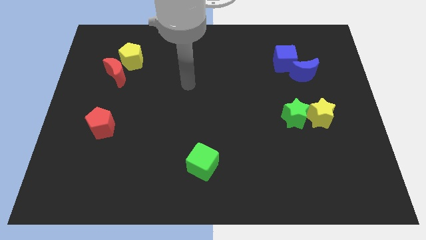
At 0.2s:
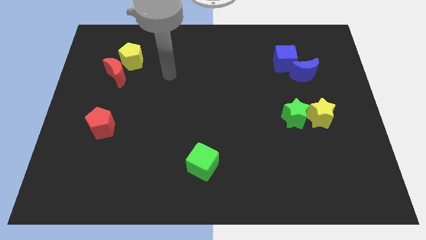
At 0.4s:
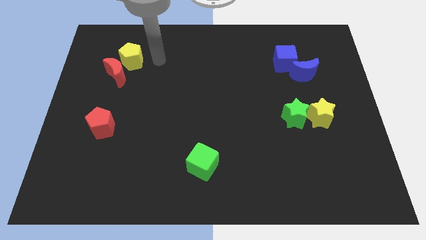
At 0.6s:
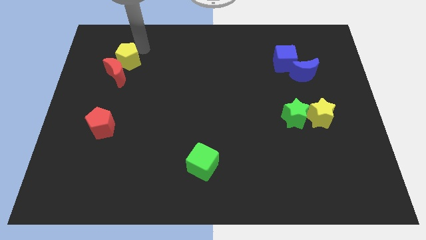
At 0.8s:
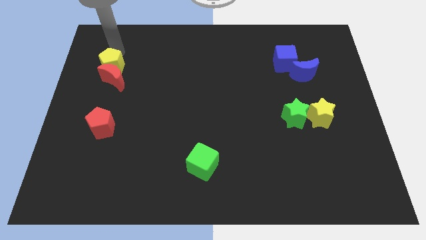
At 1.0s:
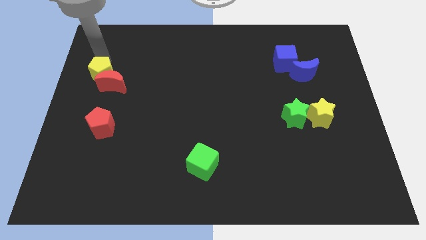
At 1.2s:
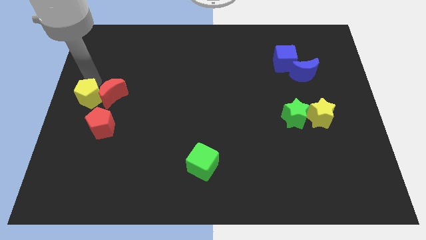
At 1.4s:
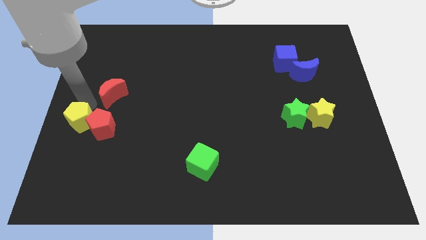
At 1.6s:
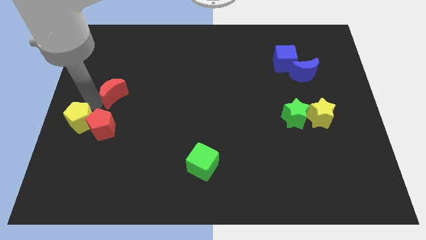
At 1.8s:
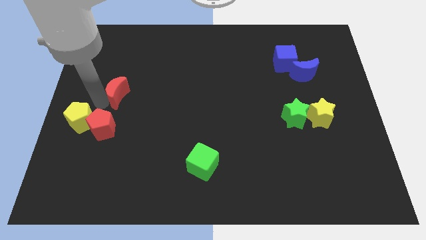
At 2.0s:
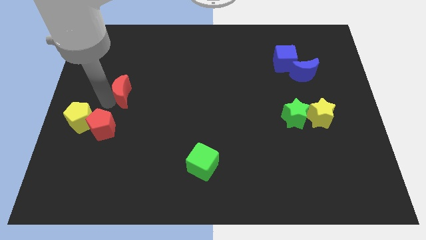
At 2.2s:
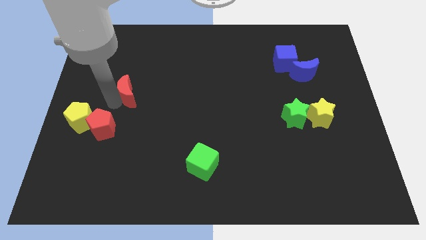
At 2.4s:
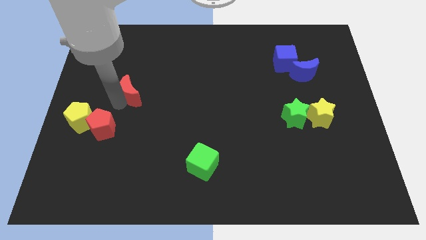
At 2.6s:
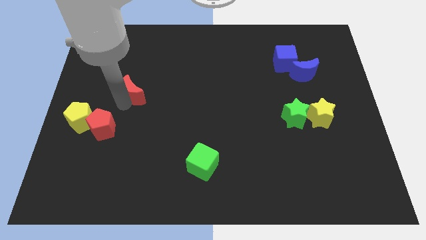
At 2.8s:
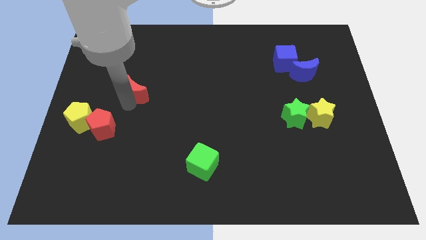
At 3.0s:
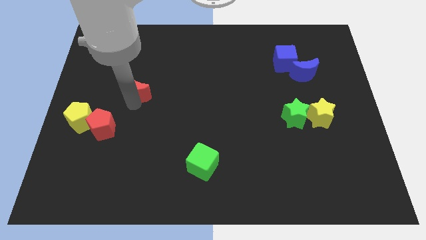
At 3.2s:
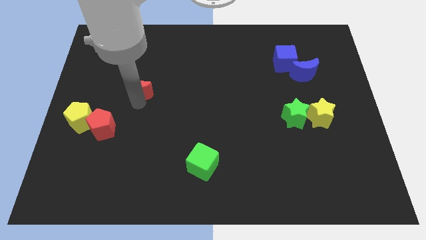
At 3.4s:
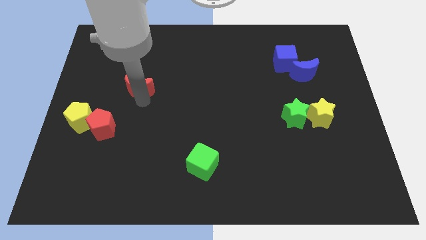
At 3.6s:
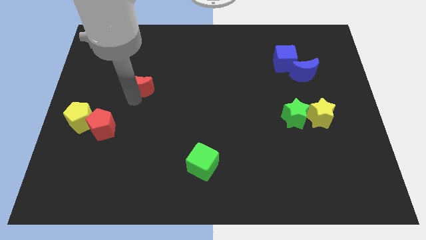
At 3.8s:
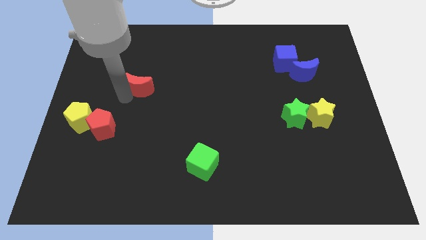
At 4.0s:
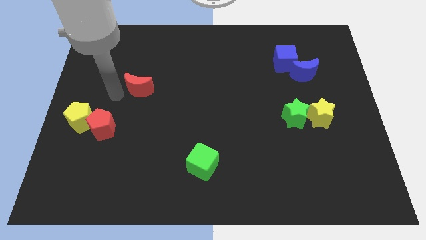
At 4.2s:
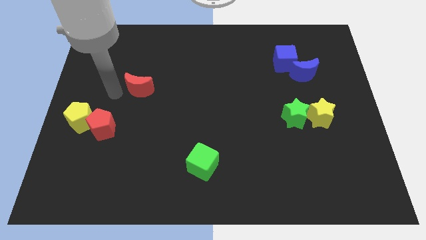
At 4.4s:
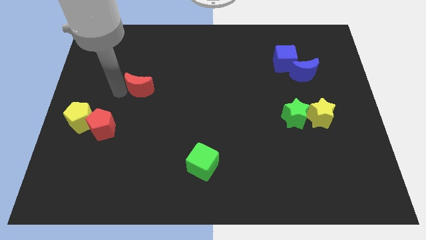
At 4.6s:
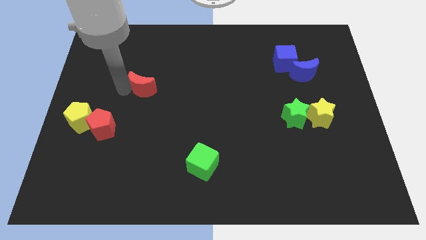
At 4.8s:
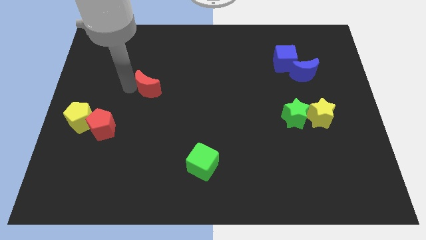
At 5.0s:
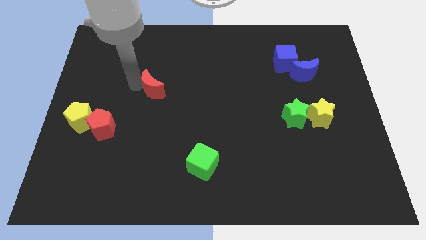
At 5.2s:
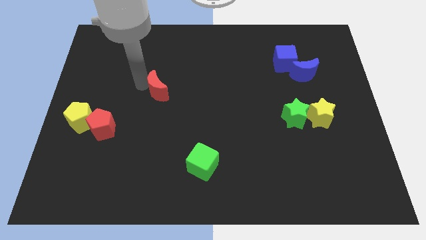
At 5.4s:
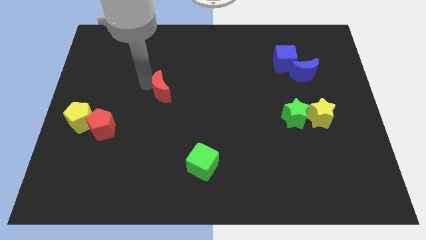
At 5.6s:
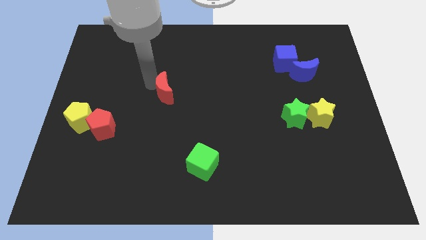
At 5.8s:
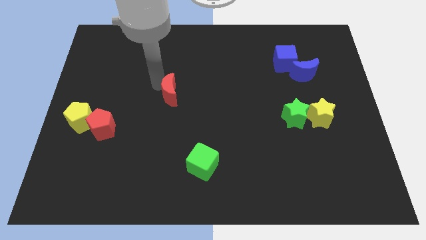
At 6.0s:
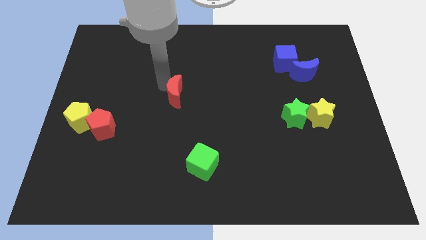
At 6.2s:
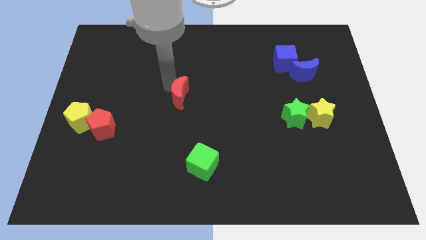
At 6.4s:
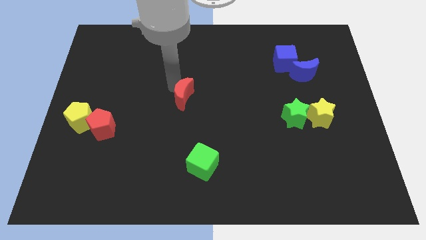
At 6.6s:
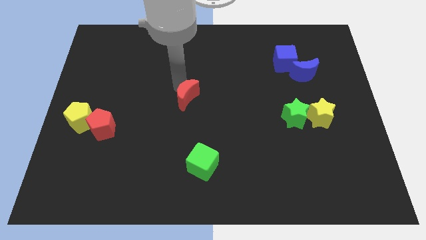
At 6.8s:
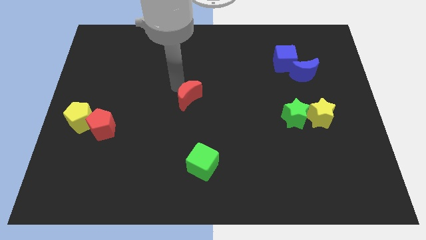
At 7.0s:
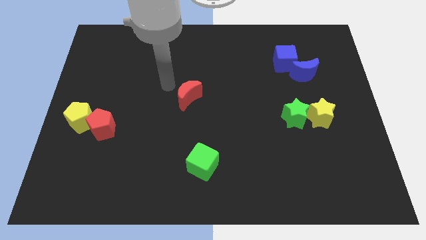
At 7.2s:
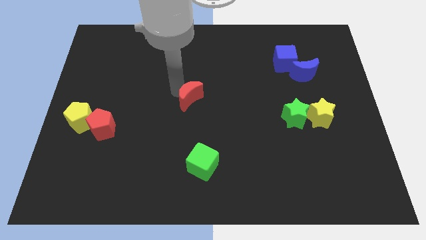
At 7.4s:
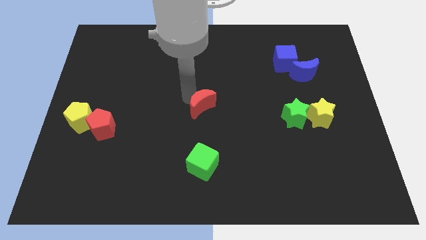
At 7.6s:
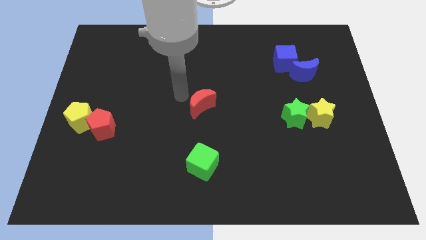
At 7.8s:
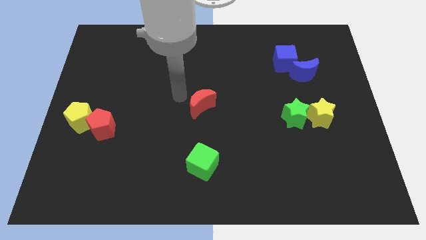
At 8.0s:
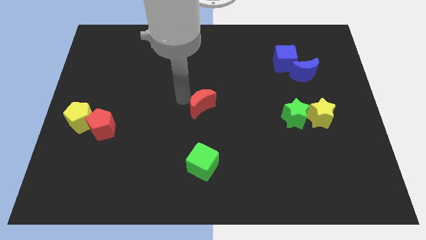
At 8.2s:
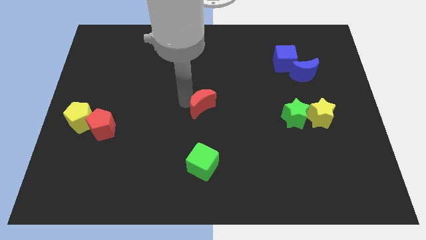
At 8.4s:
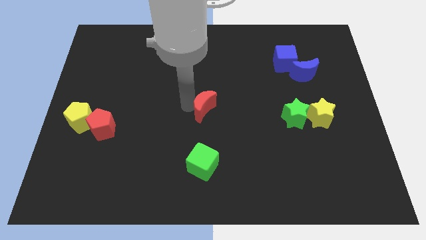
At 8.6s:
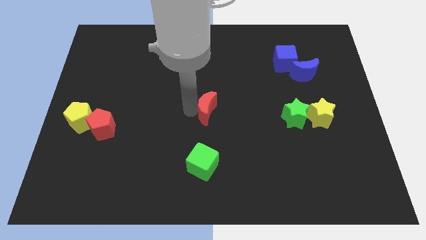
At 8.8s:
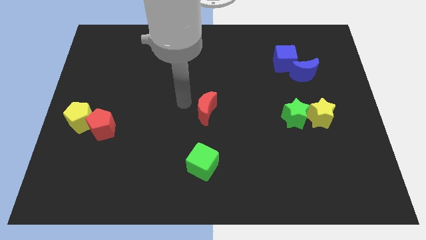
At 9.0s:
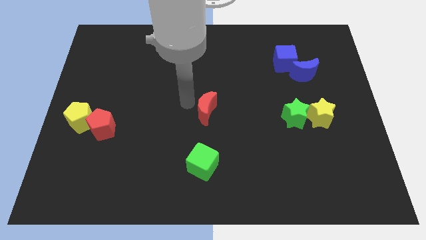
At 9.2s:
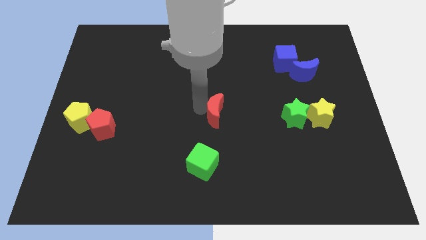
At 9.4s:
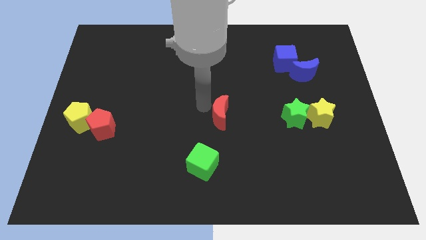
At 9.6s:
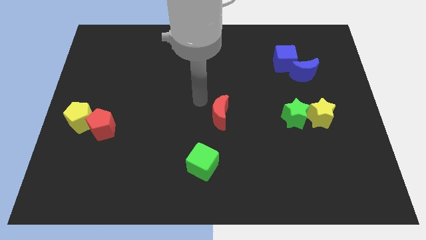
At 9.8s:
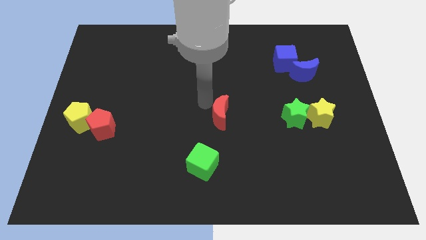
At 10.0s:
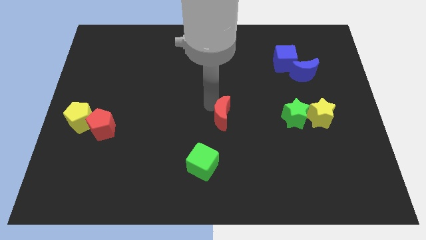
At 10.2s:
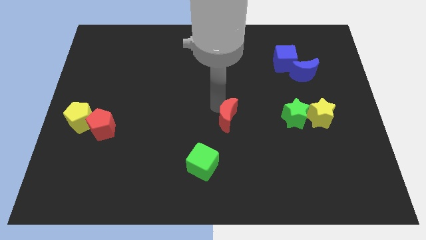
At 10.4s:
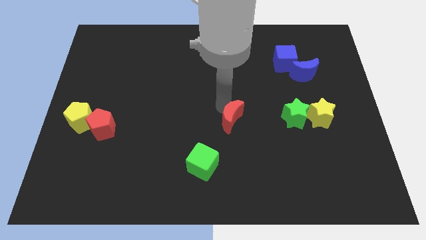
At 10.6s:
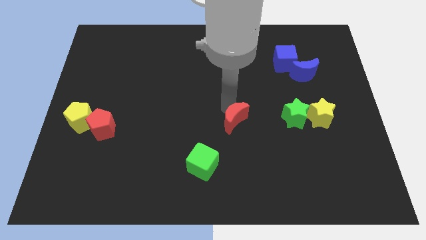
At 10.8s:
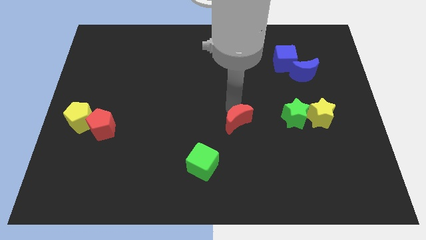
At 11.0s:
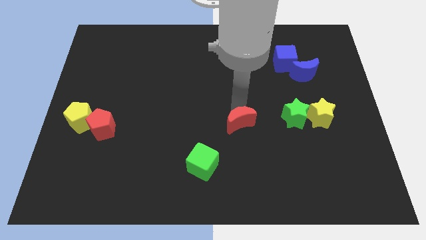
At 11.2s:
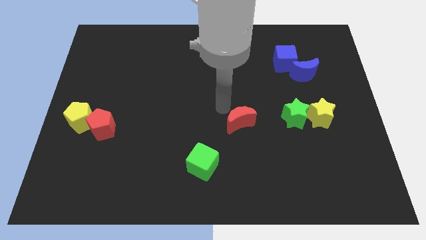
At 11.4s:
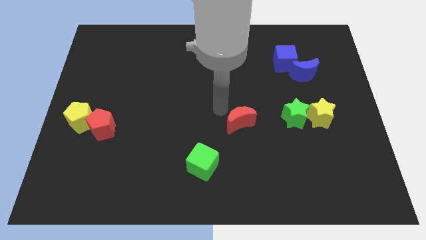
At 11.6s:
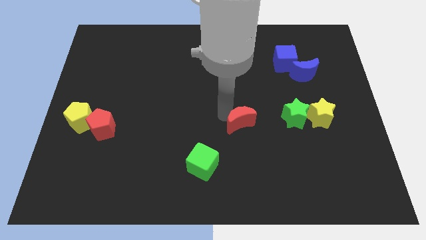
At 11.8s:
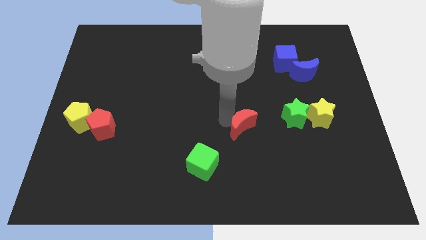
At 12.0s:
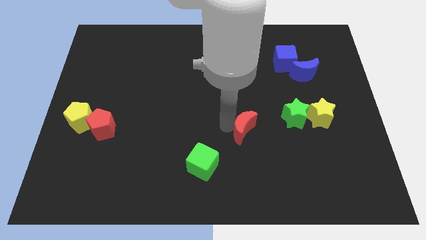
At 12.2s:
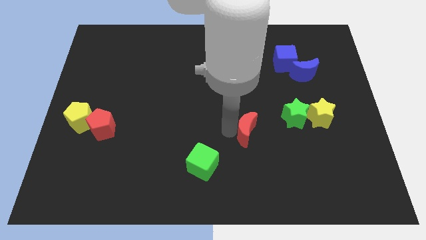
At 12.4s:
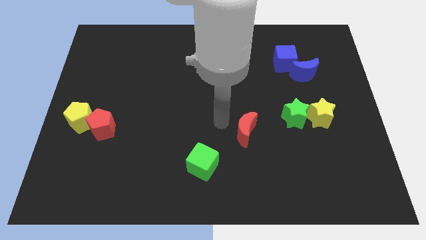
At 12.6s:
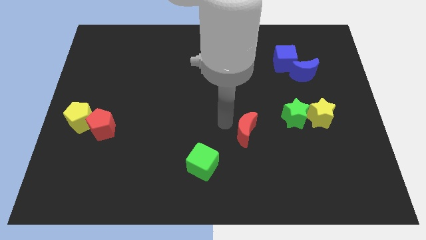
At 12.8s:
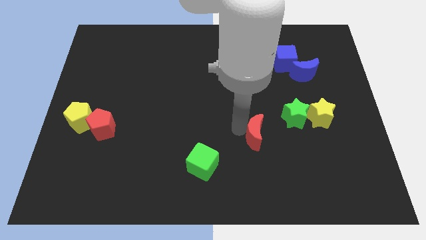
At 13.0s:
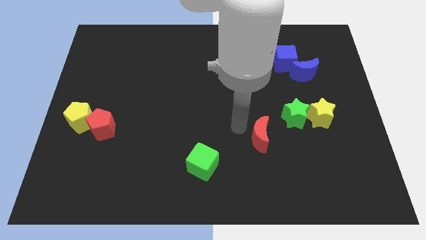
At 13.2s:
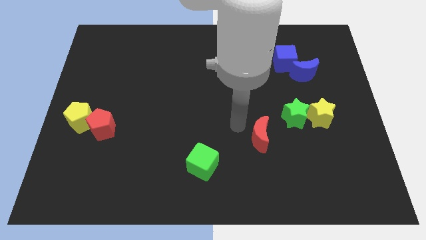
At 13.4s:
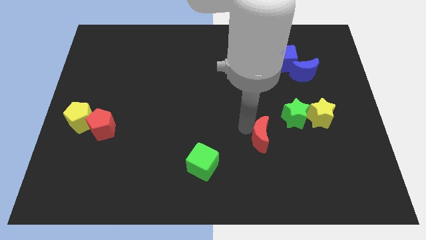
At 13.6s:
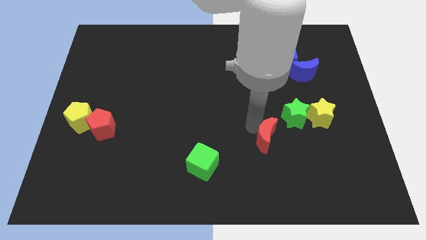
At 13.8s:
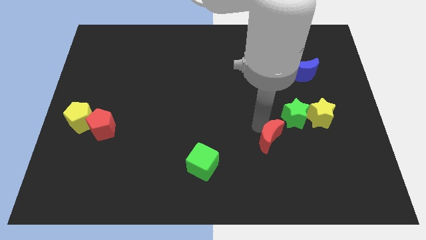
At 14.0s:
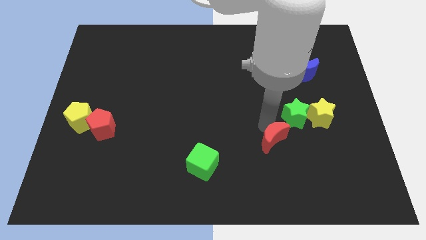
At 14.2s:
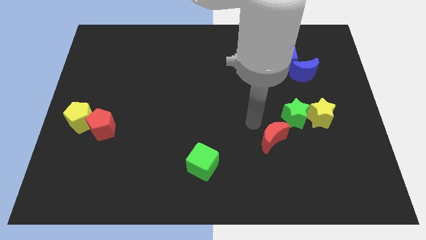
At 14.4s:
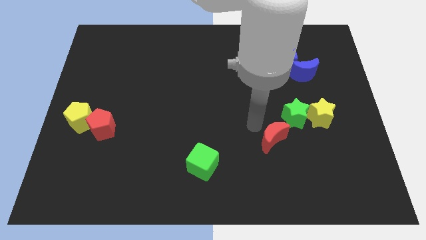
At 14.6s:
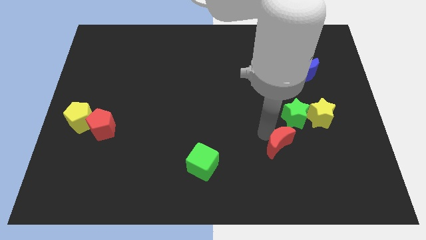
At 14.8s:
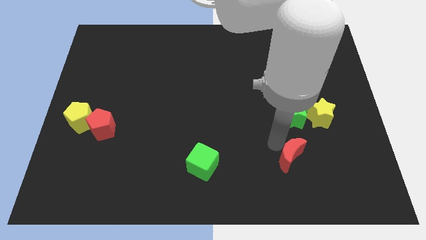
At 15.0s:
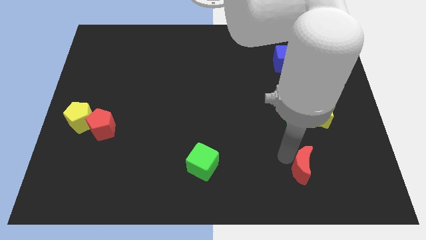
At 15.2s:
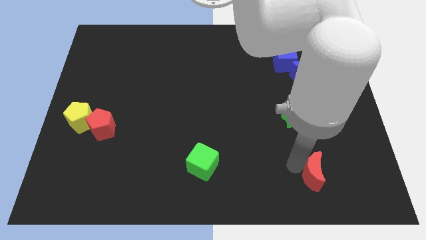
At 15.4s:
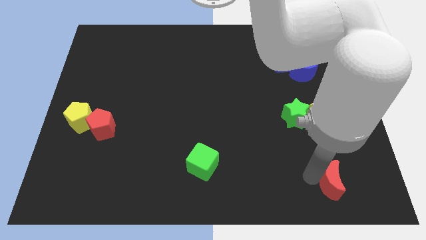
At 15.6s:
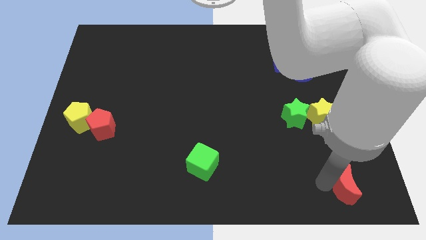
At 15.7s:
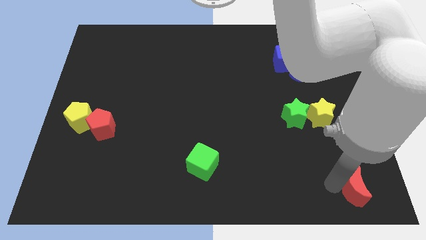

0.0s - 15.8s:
slide the red moon to the bottom right of the board
